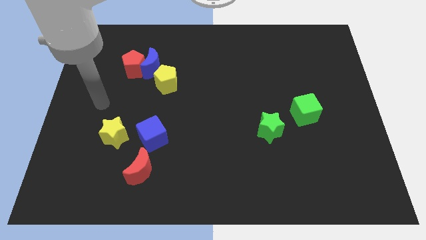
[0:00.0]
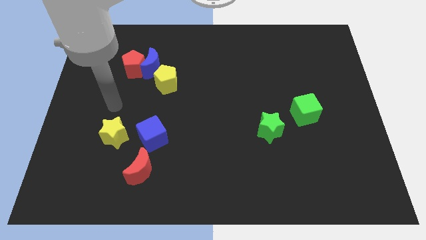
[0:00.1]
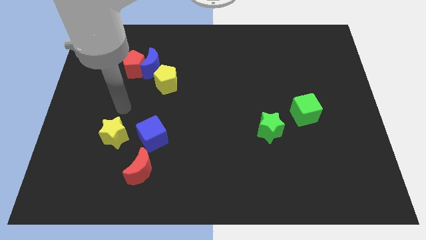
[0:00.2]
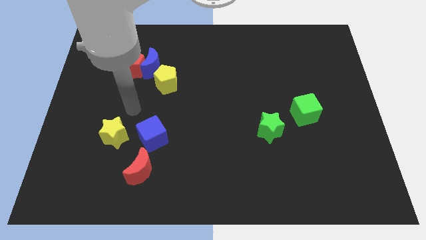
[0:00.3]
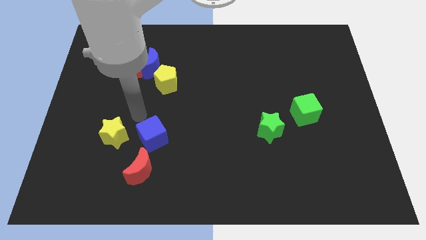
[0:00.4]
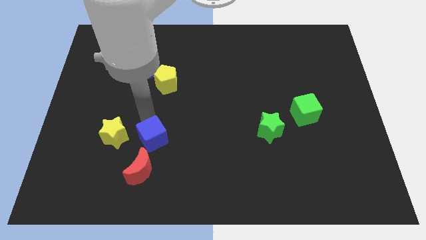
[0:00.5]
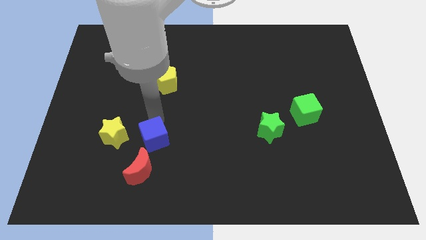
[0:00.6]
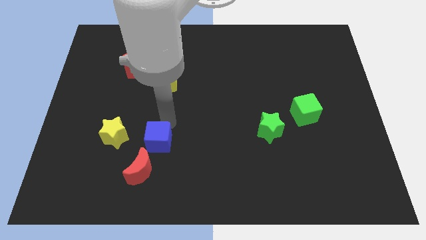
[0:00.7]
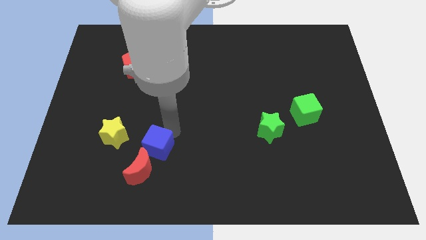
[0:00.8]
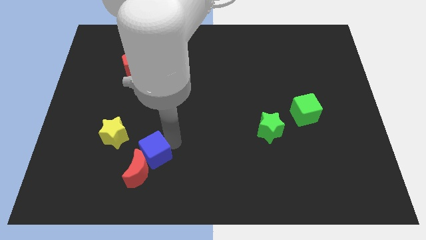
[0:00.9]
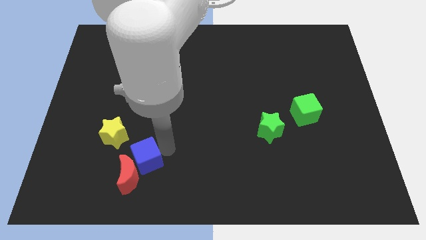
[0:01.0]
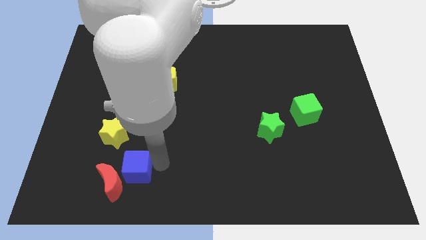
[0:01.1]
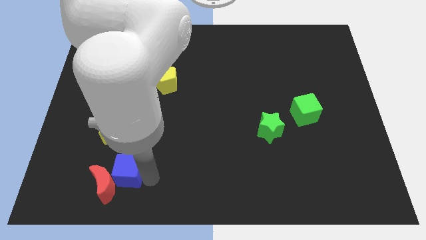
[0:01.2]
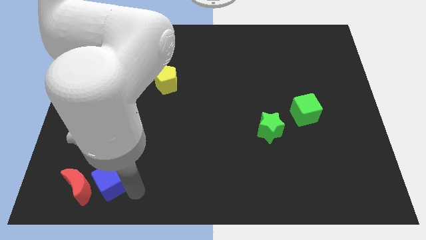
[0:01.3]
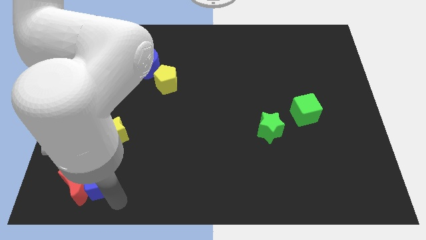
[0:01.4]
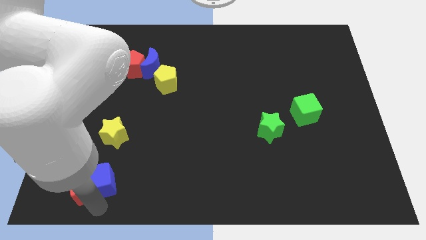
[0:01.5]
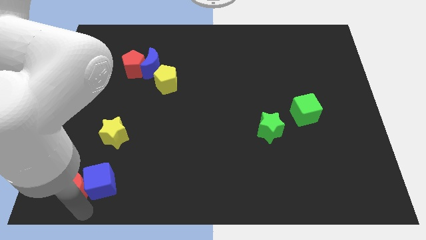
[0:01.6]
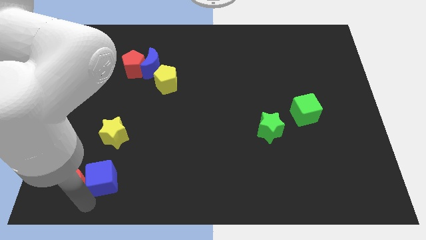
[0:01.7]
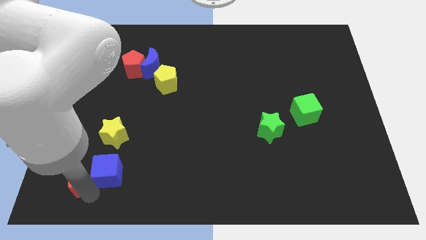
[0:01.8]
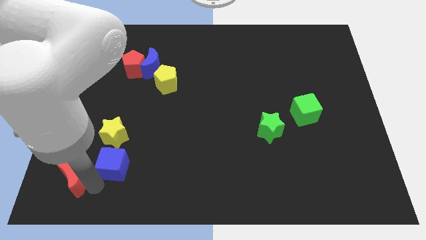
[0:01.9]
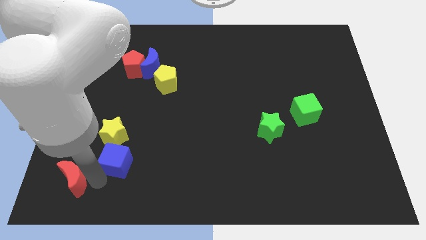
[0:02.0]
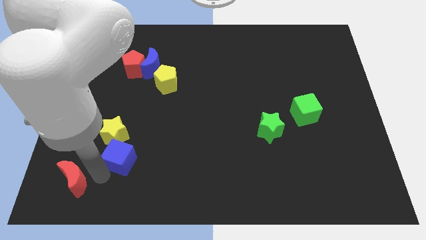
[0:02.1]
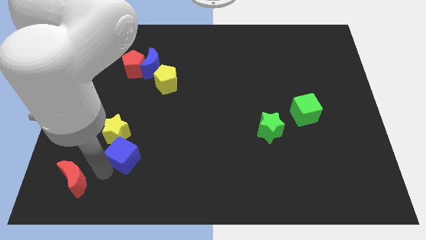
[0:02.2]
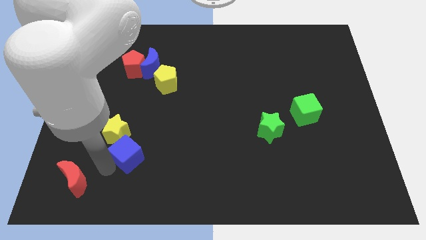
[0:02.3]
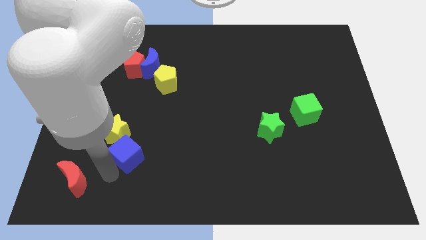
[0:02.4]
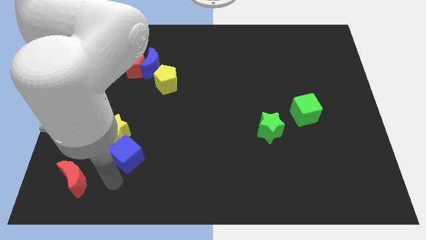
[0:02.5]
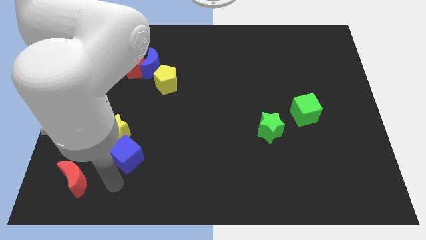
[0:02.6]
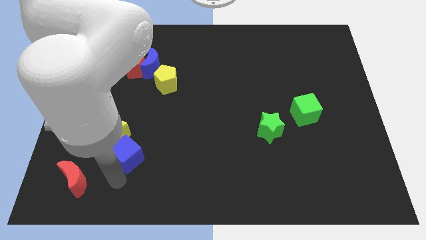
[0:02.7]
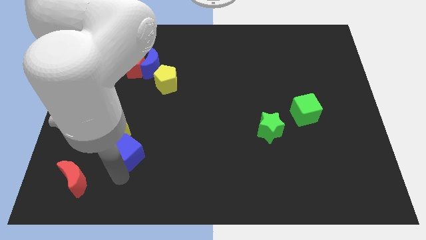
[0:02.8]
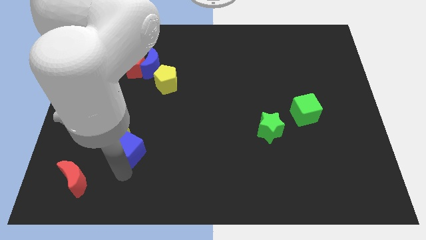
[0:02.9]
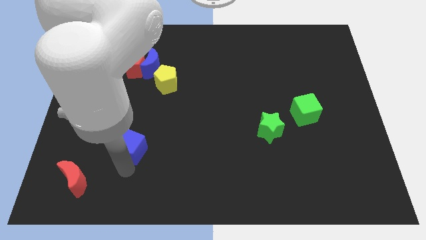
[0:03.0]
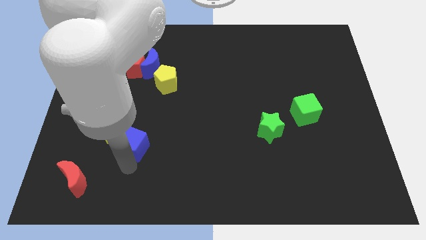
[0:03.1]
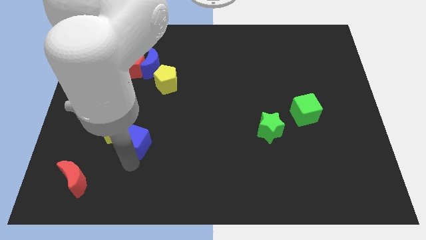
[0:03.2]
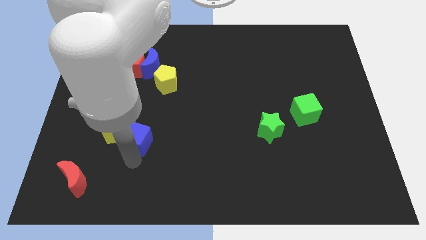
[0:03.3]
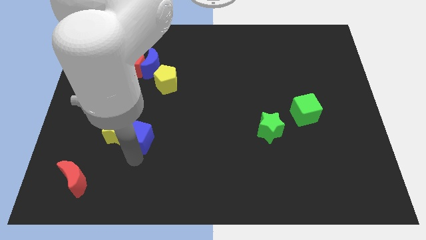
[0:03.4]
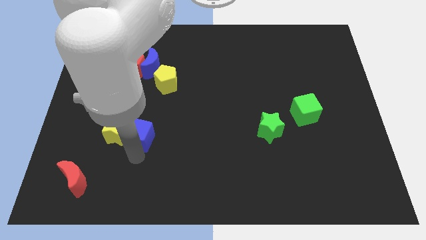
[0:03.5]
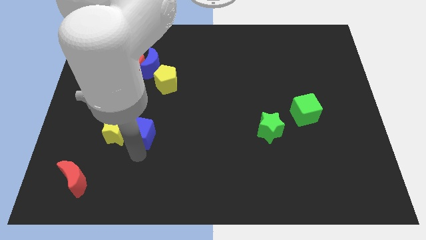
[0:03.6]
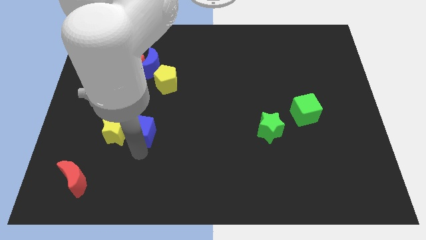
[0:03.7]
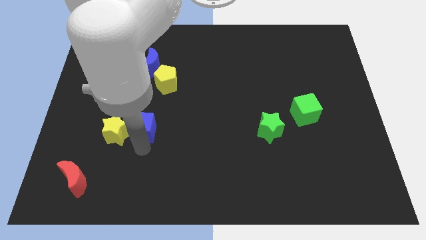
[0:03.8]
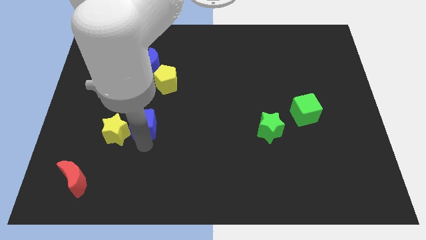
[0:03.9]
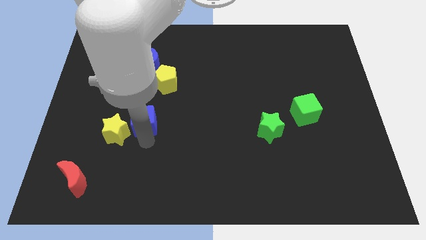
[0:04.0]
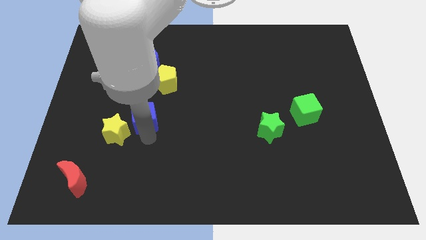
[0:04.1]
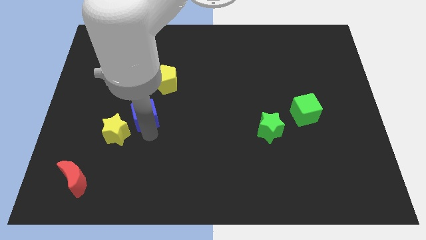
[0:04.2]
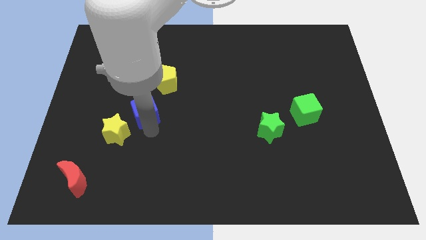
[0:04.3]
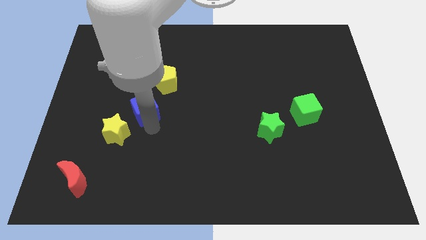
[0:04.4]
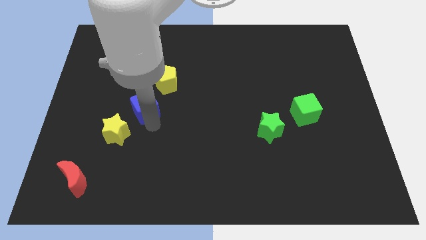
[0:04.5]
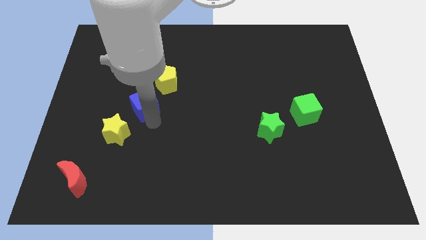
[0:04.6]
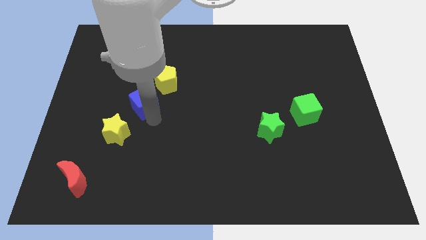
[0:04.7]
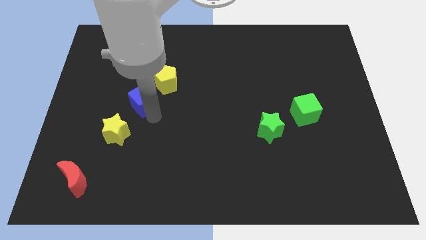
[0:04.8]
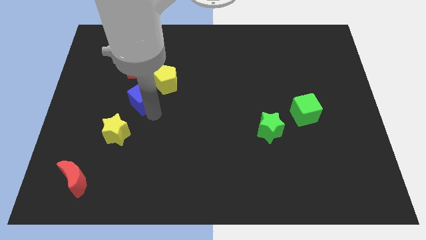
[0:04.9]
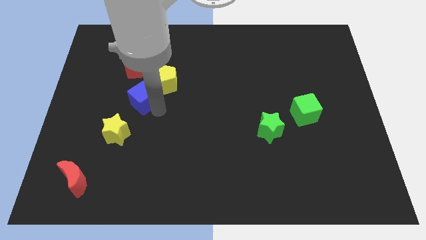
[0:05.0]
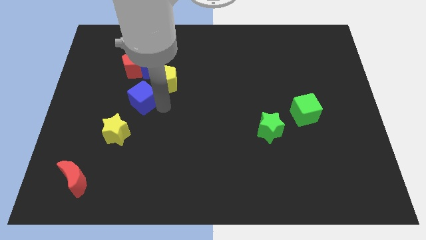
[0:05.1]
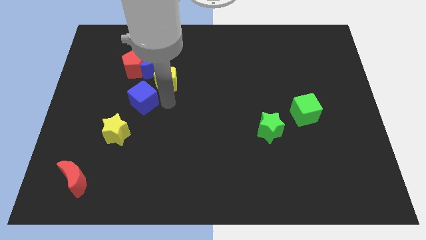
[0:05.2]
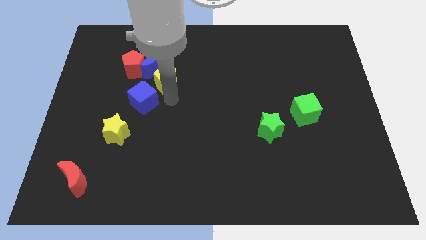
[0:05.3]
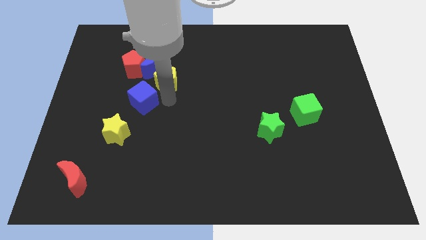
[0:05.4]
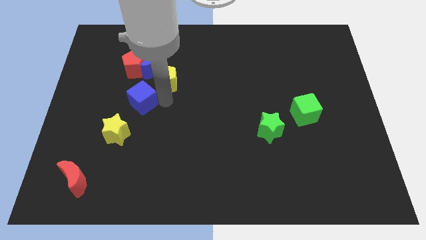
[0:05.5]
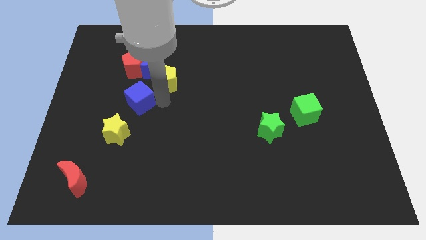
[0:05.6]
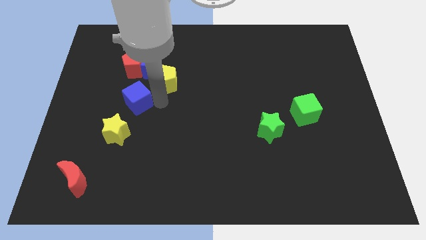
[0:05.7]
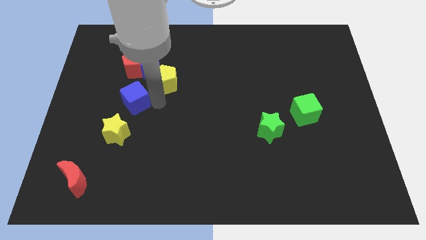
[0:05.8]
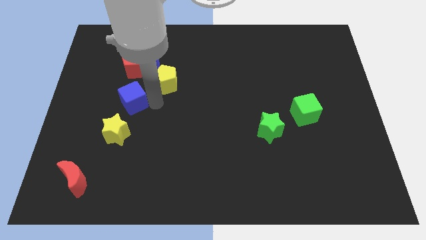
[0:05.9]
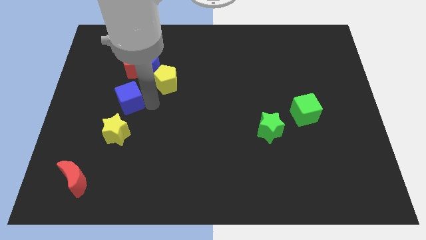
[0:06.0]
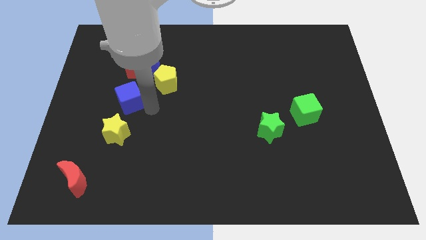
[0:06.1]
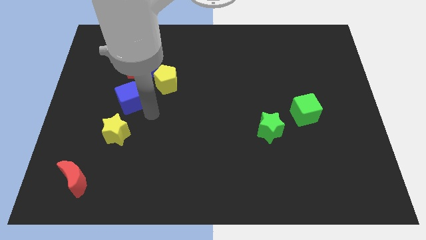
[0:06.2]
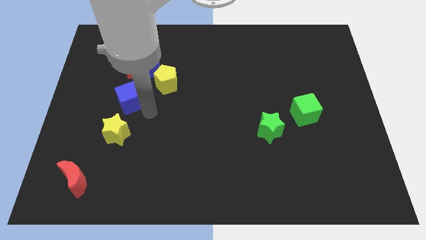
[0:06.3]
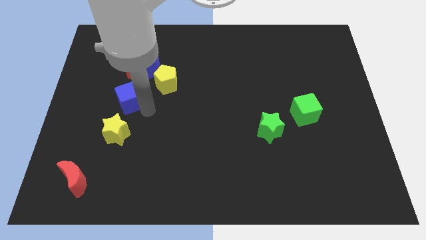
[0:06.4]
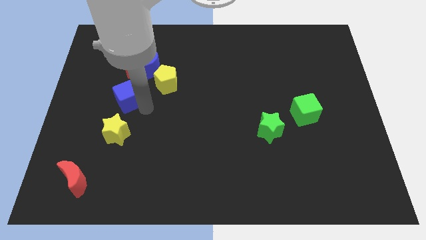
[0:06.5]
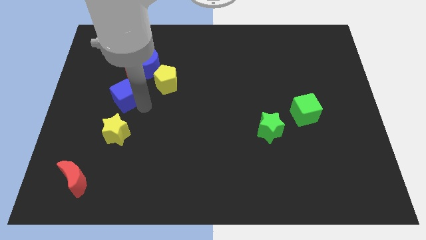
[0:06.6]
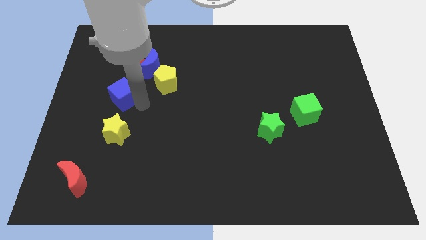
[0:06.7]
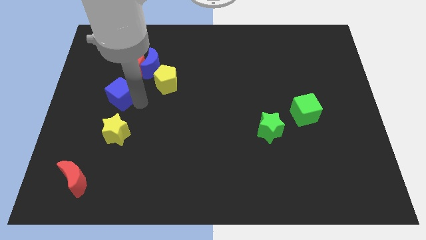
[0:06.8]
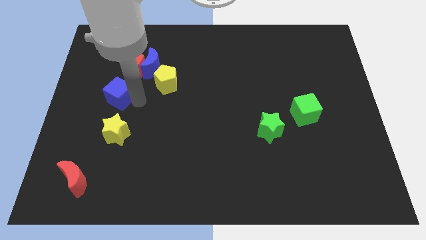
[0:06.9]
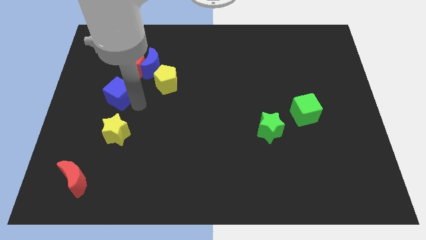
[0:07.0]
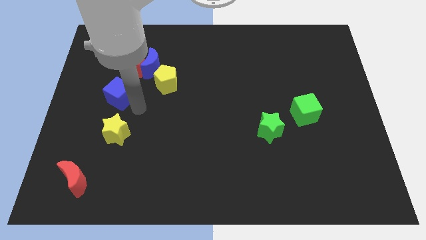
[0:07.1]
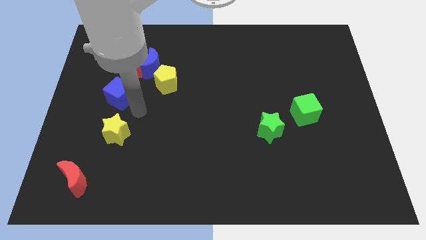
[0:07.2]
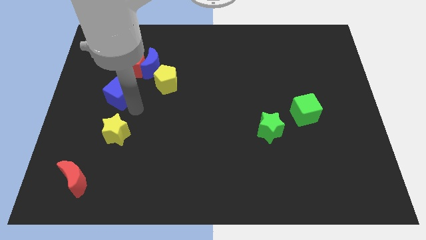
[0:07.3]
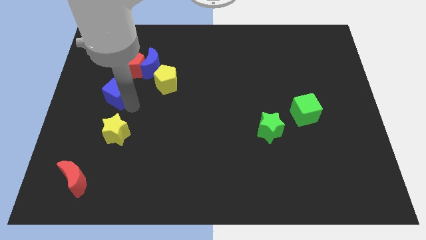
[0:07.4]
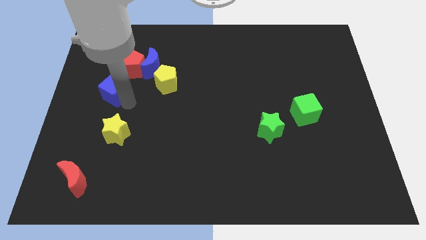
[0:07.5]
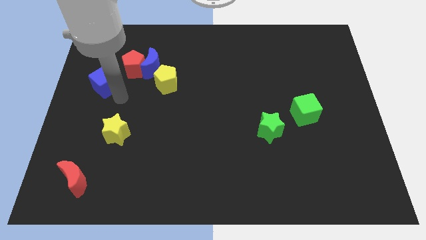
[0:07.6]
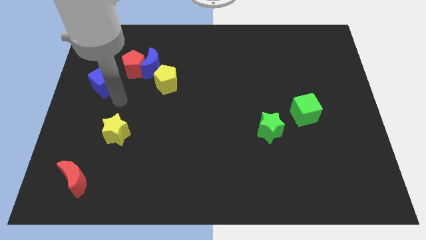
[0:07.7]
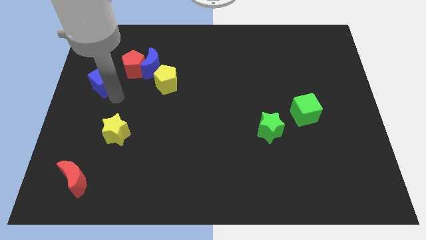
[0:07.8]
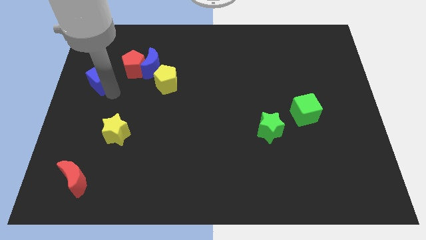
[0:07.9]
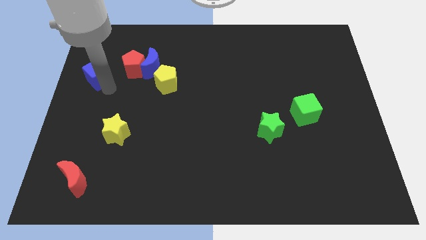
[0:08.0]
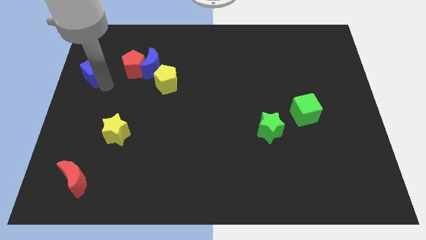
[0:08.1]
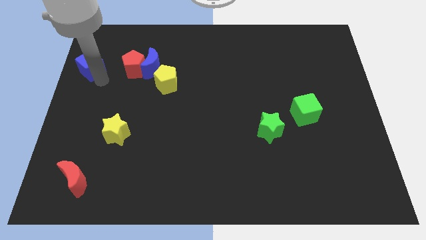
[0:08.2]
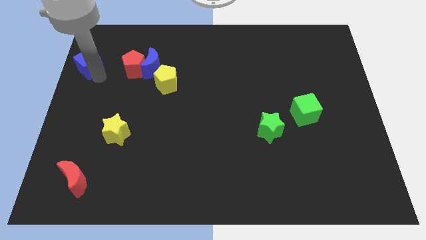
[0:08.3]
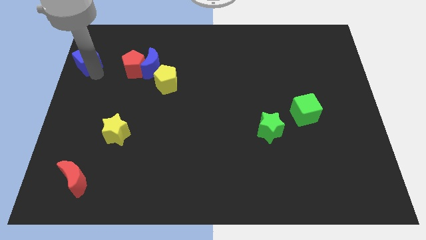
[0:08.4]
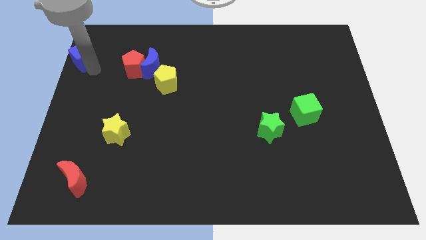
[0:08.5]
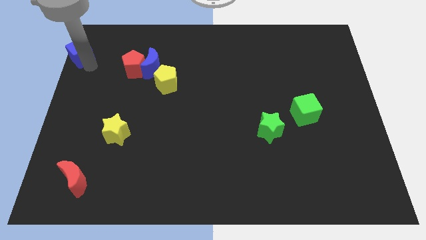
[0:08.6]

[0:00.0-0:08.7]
put the blue cube to the top left
